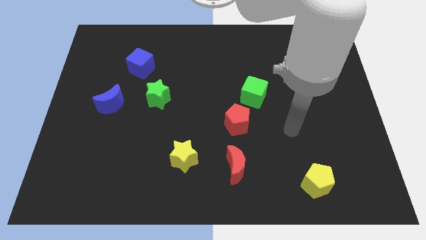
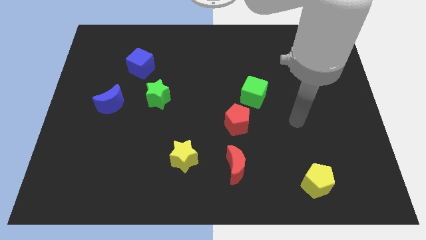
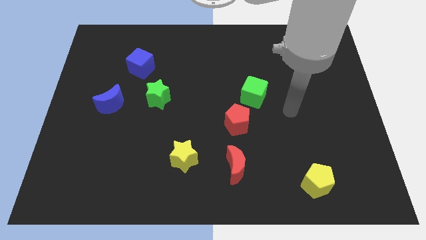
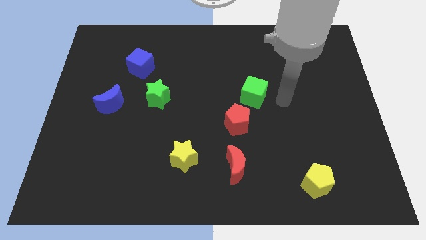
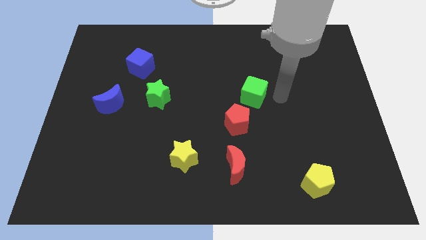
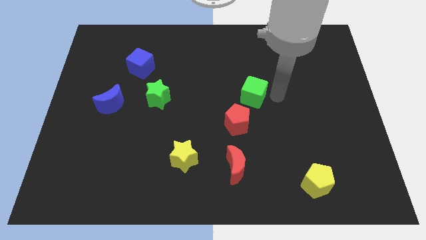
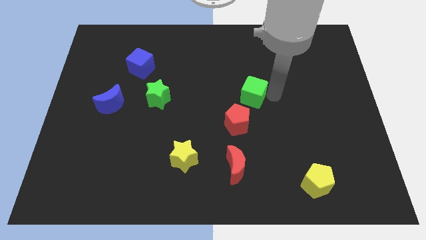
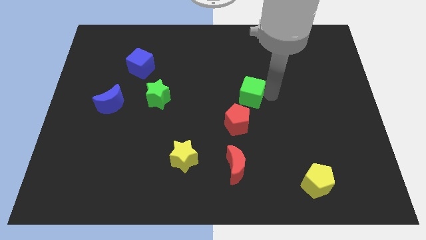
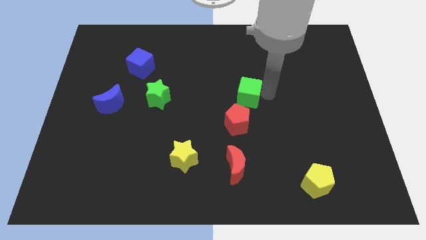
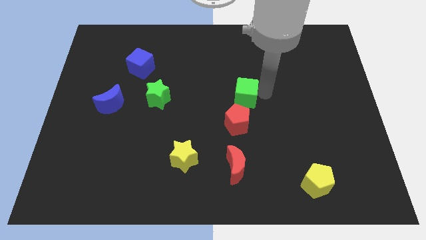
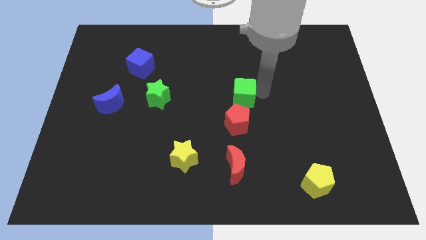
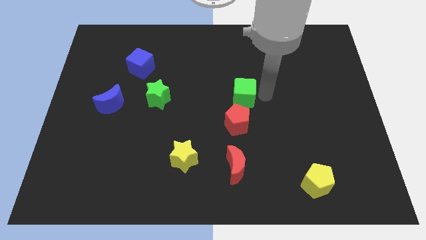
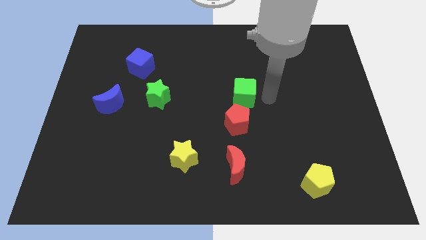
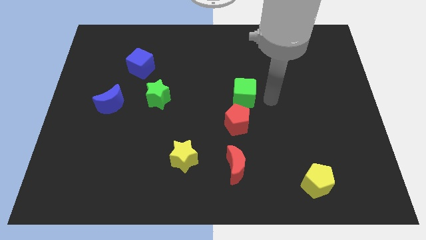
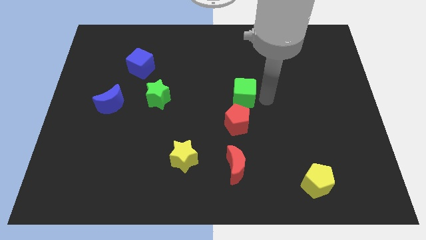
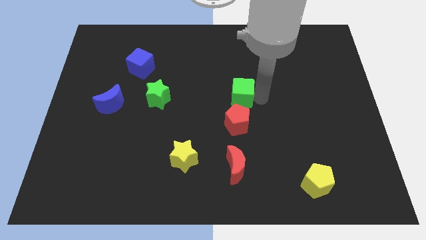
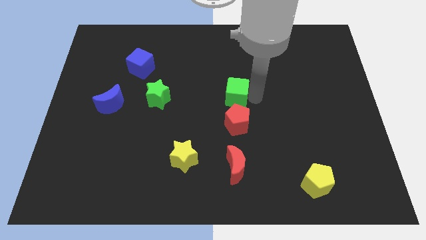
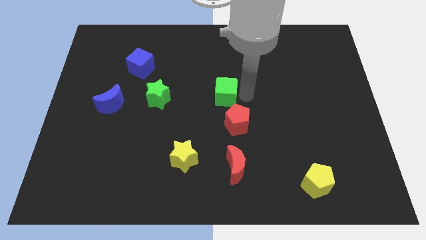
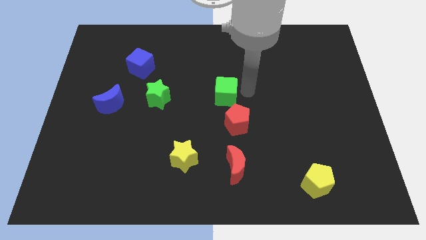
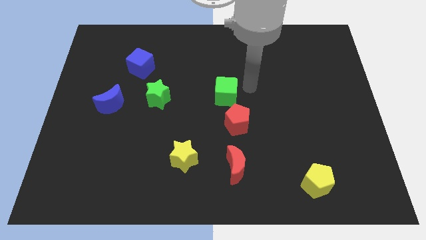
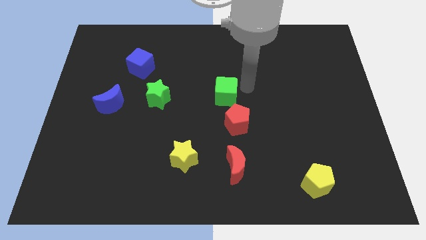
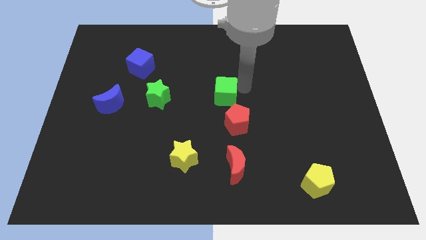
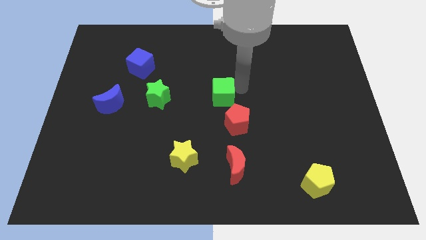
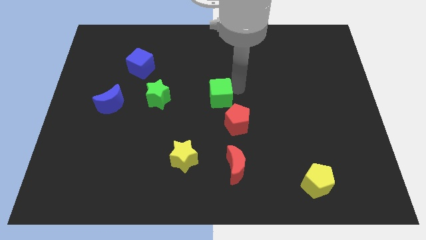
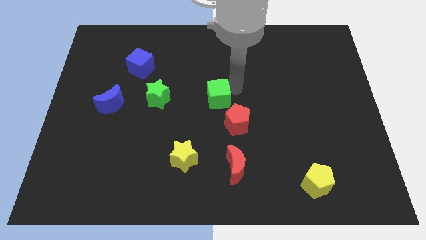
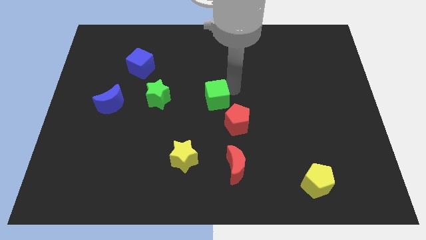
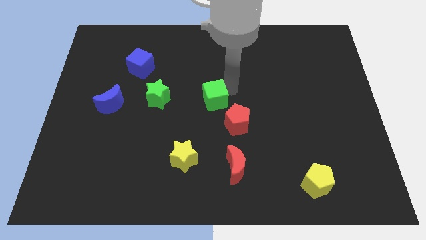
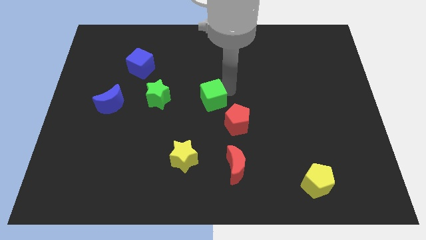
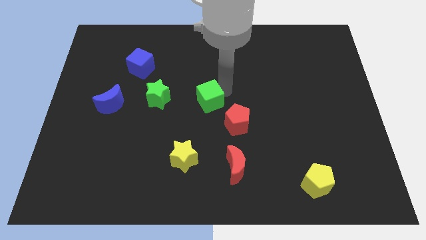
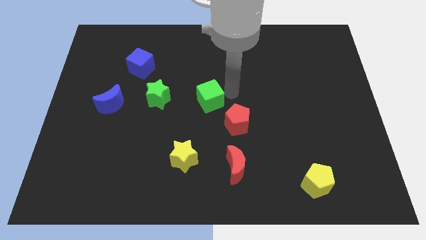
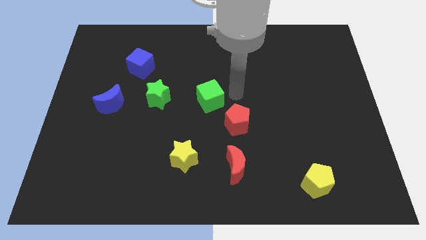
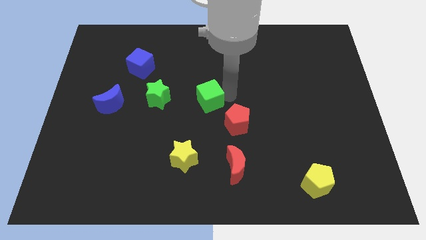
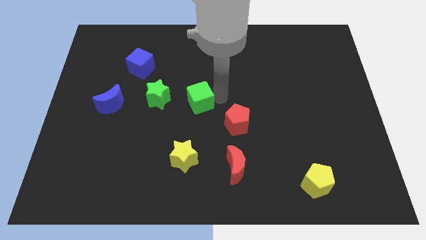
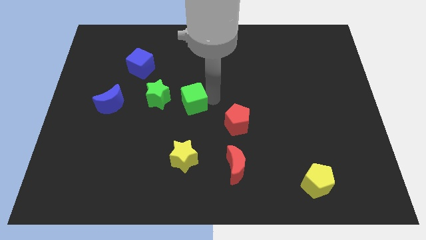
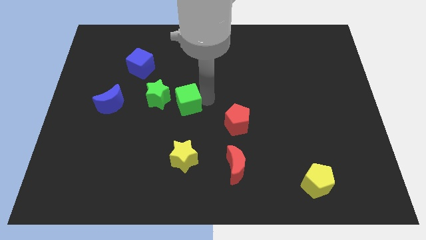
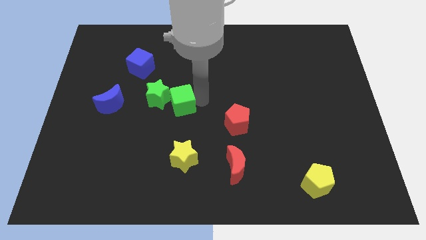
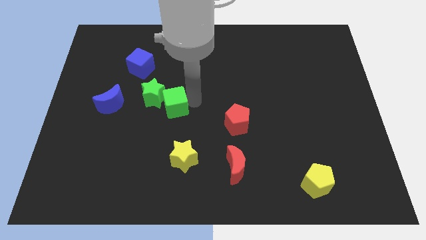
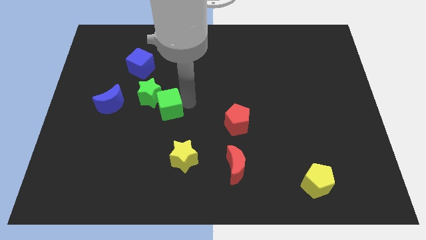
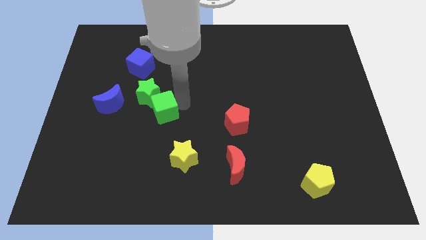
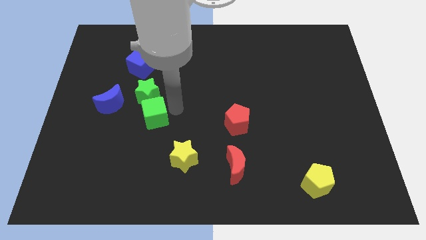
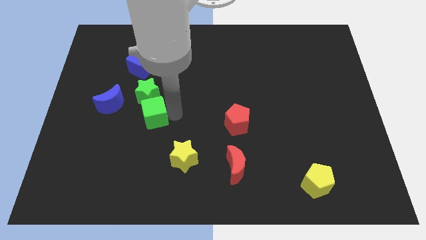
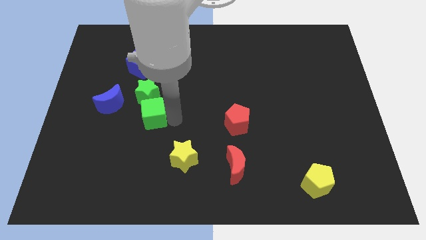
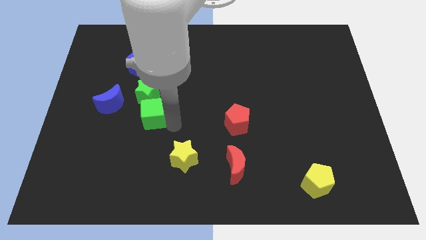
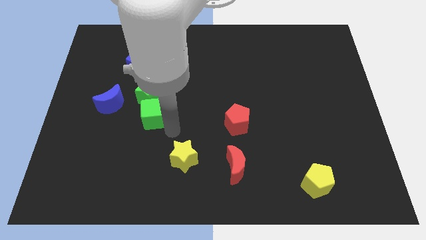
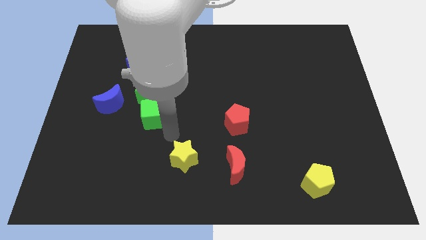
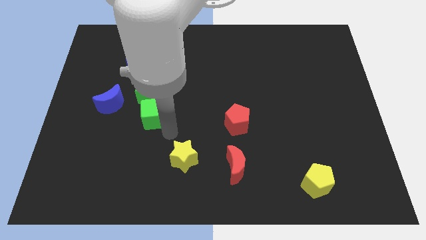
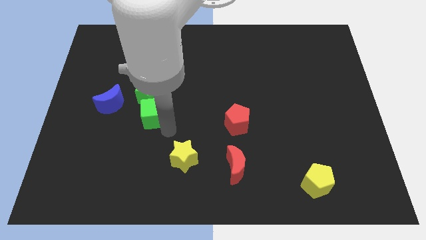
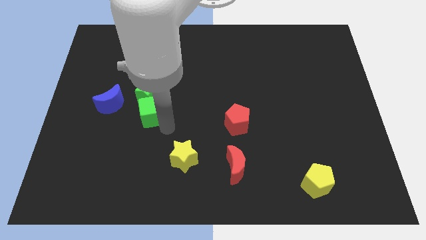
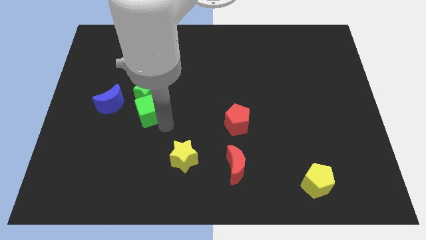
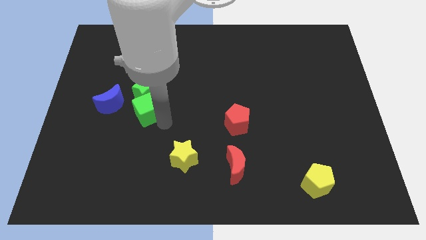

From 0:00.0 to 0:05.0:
move the green cube below the blue cube

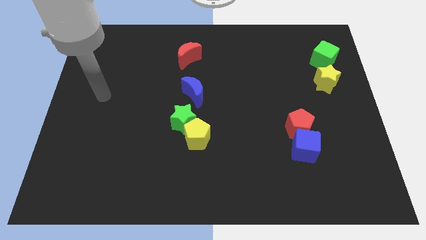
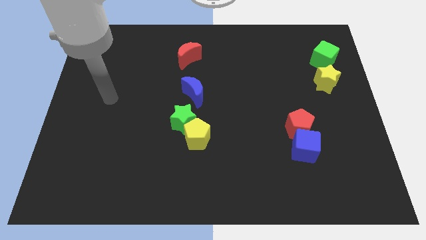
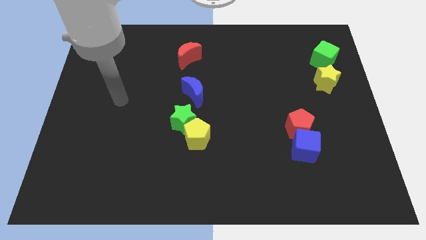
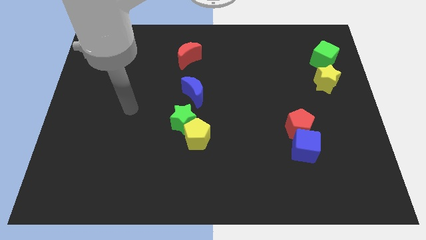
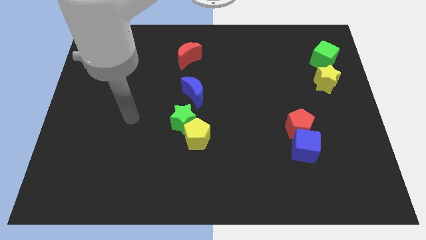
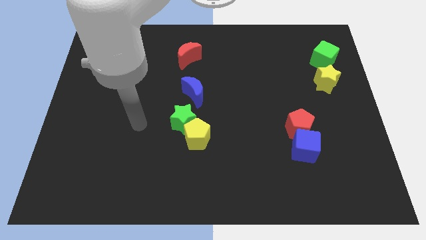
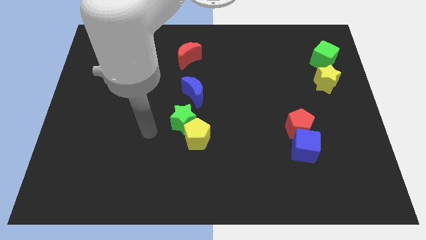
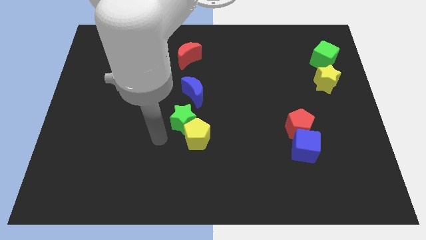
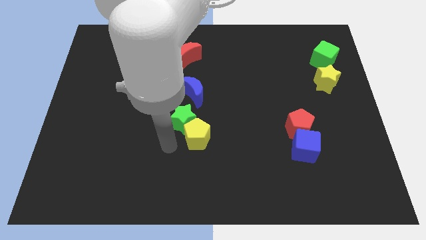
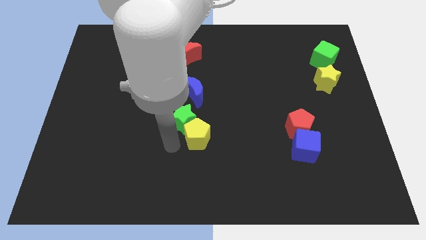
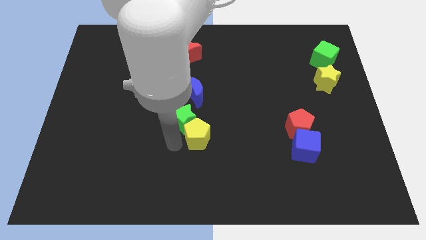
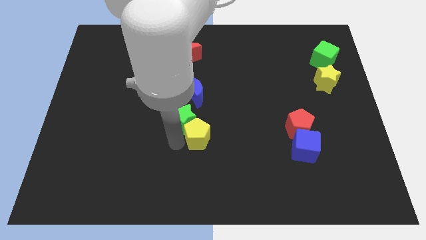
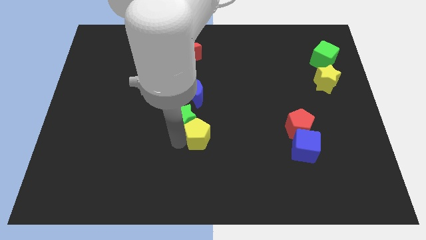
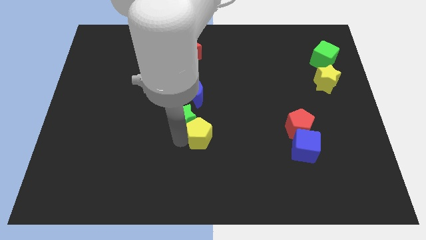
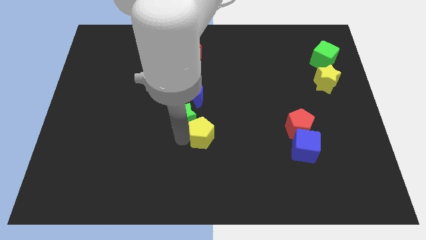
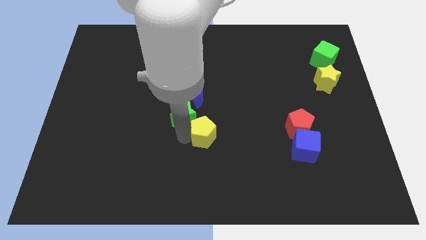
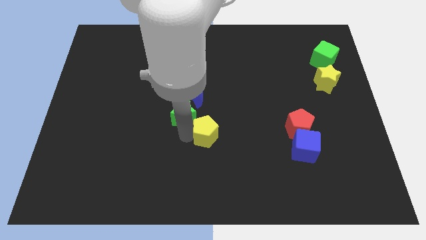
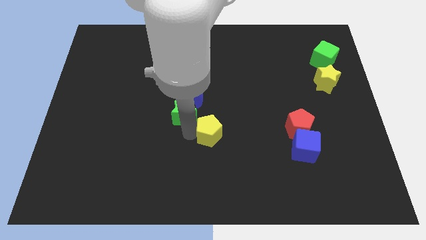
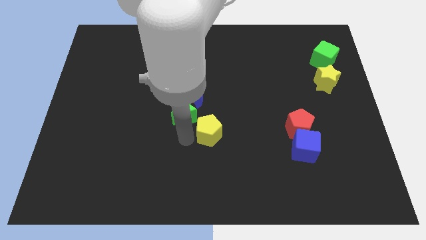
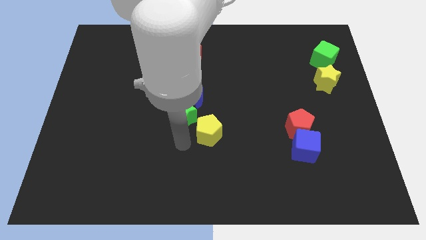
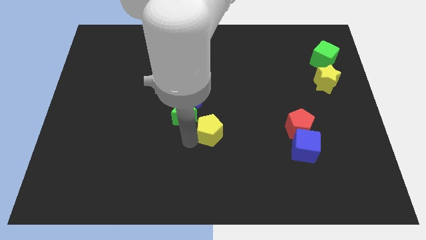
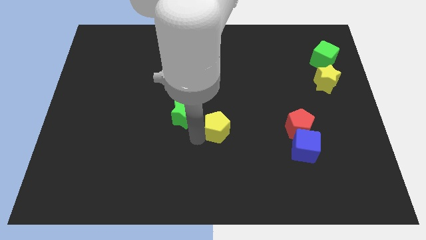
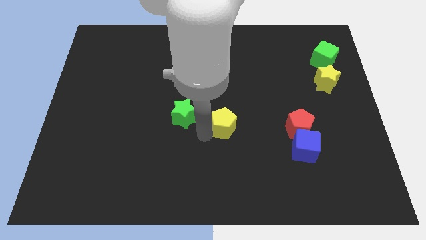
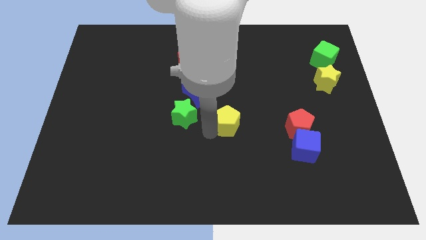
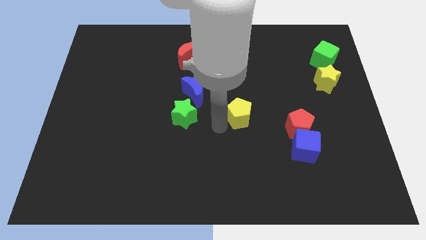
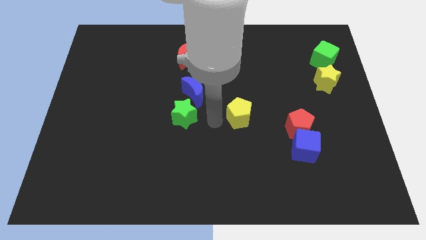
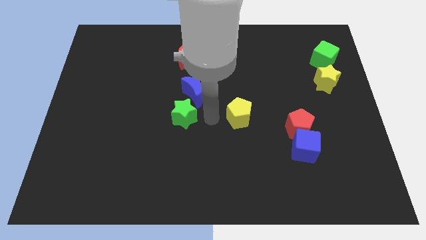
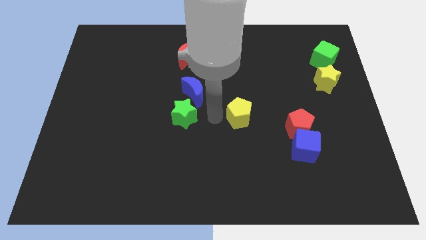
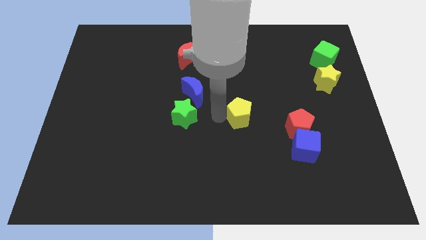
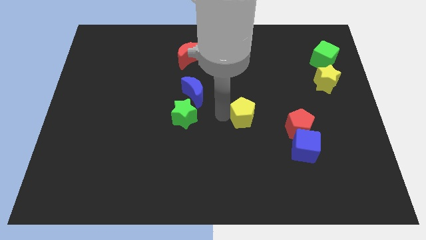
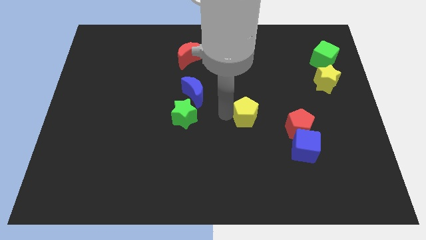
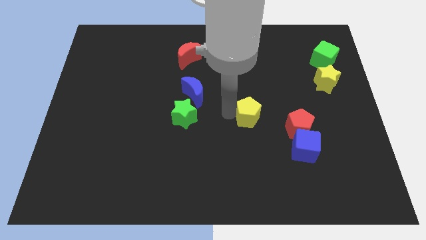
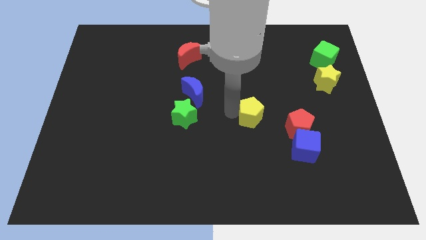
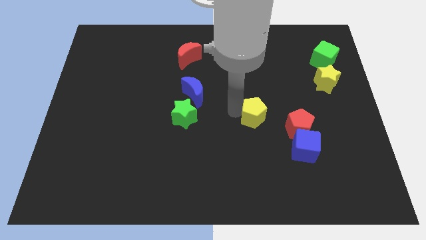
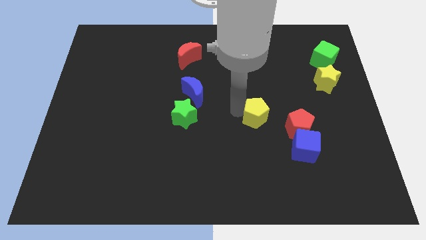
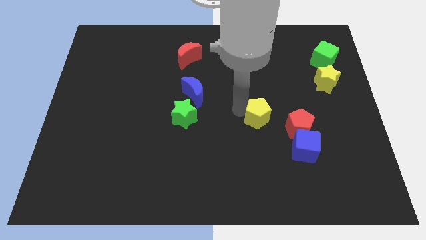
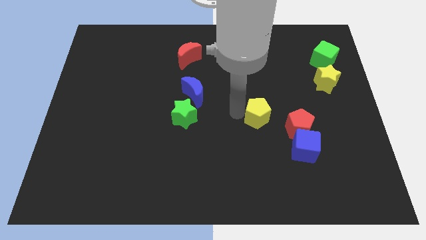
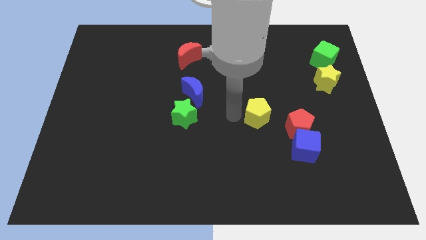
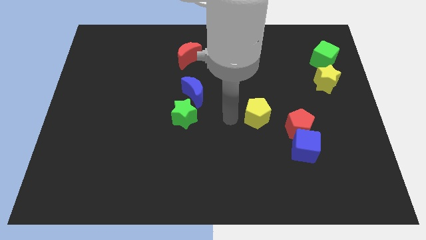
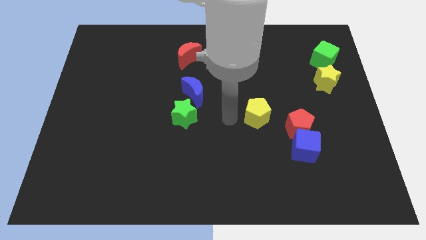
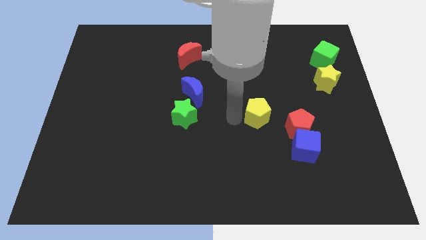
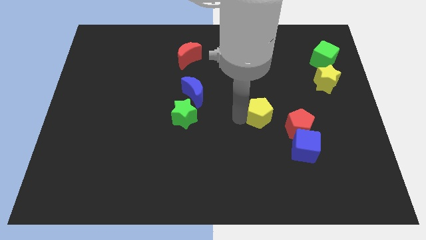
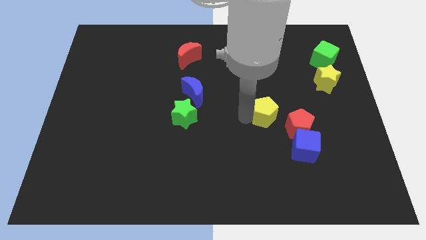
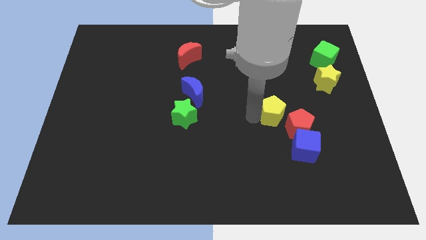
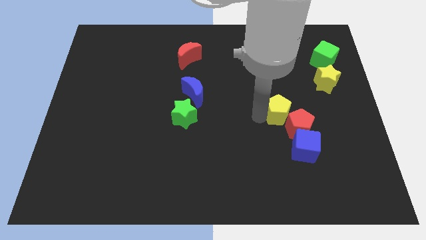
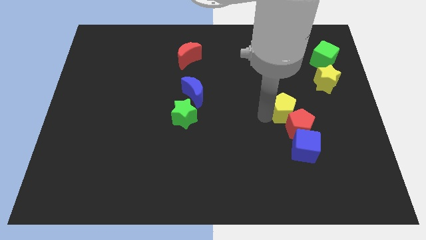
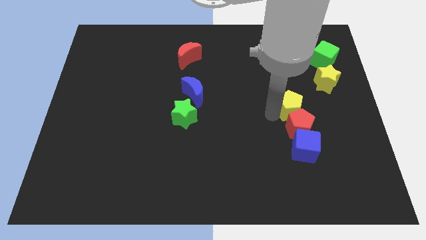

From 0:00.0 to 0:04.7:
push the yellow pentagon to the bottom left of the yellow star
